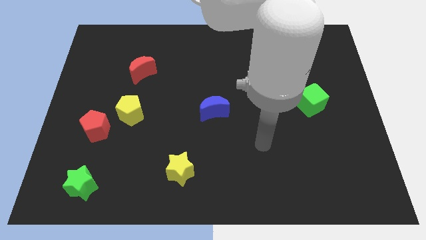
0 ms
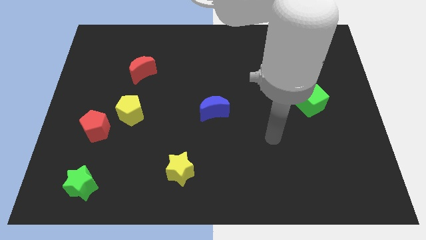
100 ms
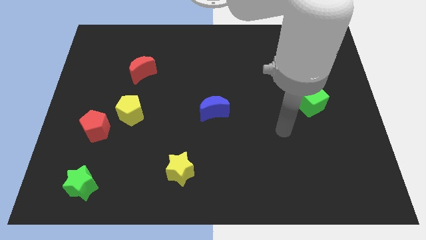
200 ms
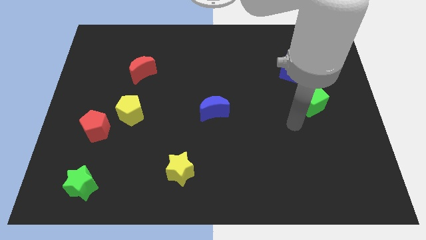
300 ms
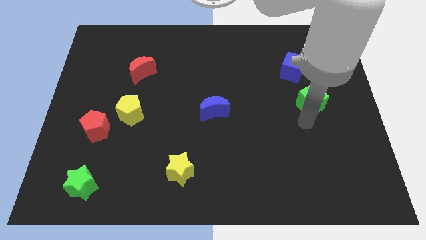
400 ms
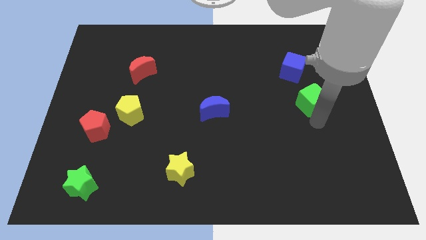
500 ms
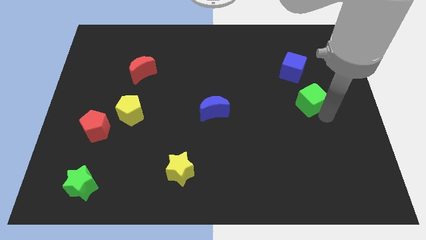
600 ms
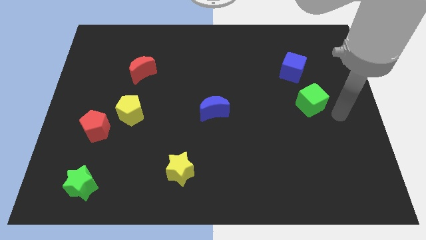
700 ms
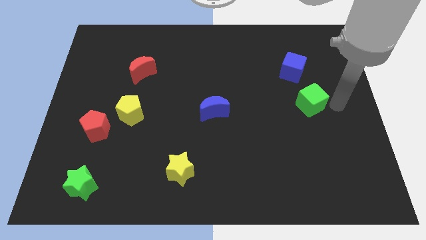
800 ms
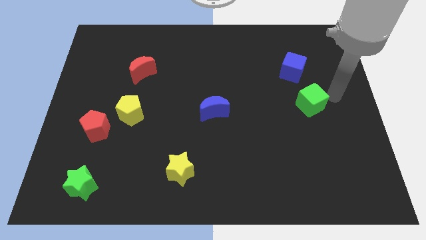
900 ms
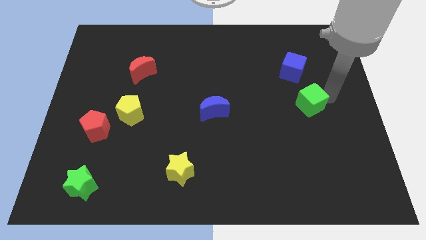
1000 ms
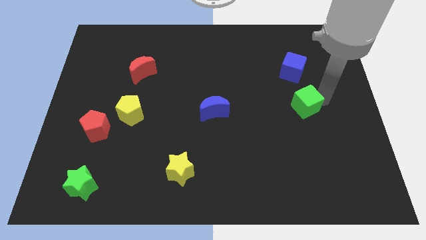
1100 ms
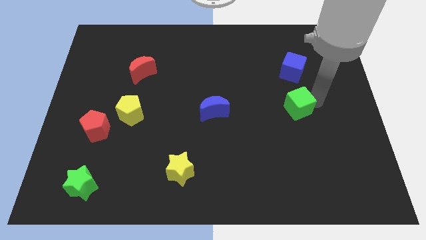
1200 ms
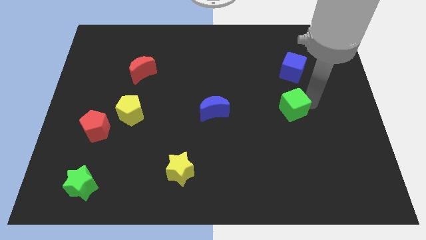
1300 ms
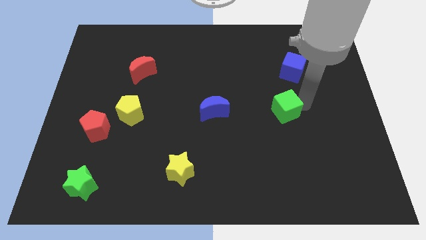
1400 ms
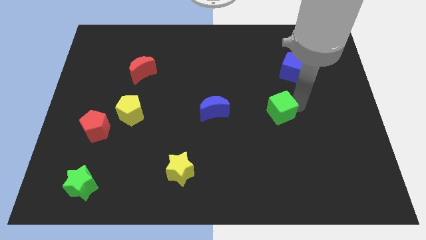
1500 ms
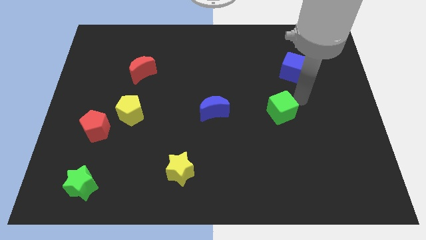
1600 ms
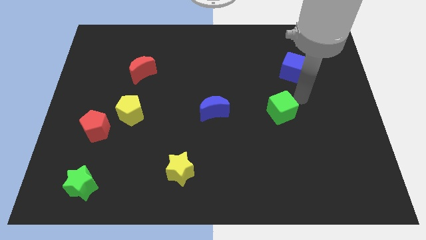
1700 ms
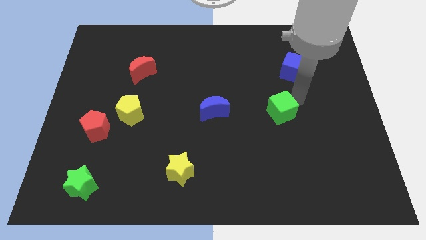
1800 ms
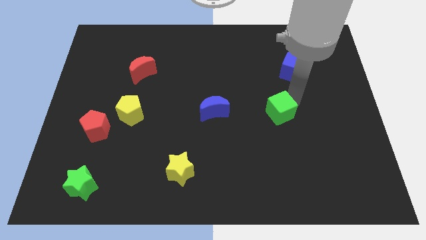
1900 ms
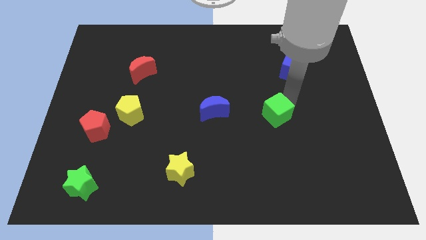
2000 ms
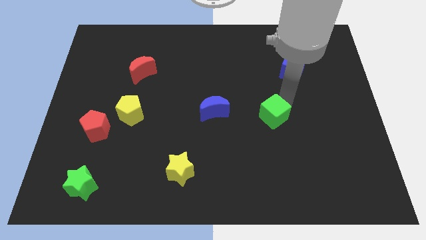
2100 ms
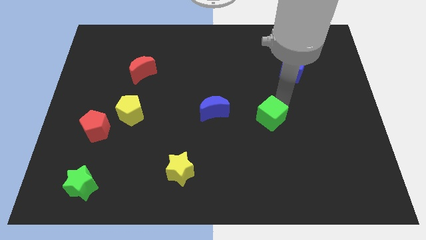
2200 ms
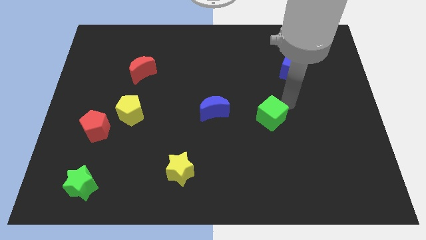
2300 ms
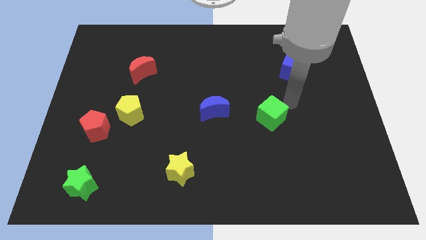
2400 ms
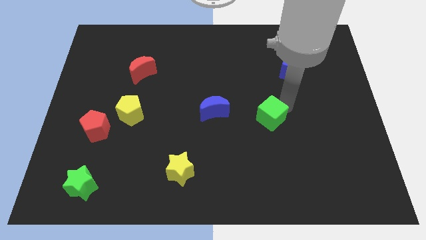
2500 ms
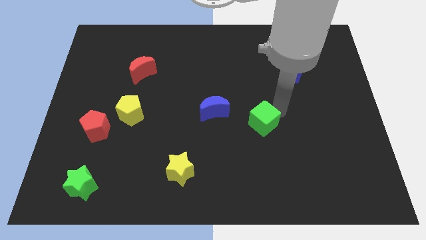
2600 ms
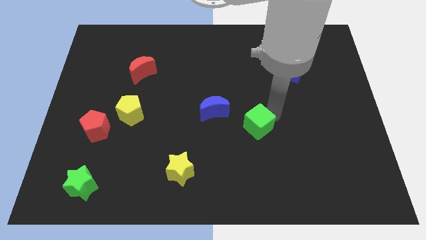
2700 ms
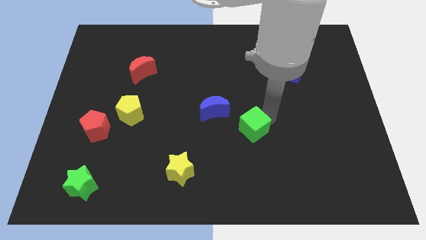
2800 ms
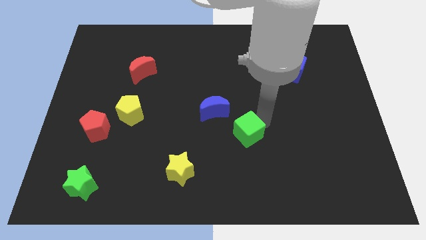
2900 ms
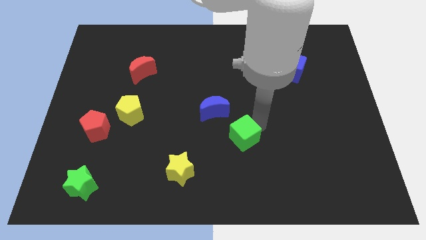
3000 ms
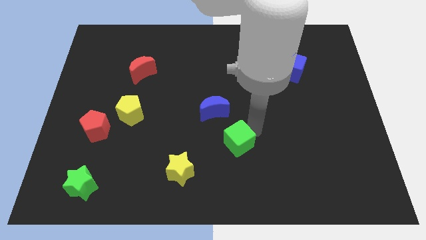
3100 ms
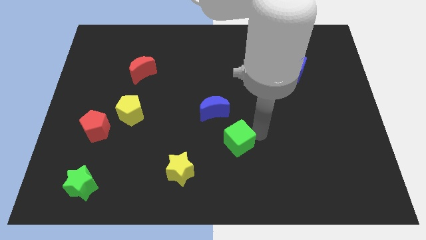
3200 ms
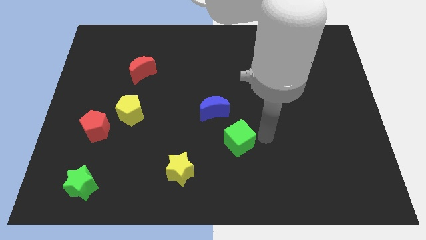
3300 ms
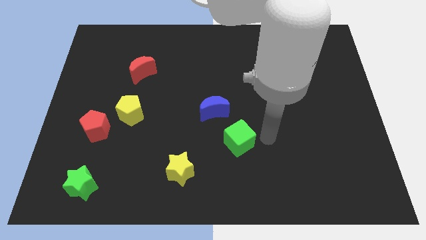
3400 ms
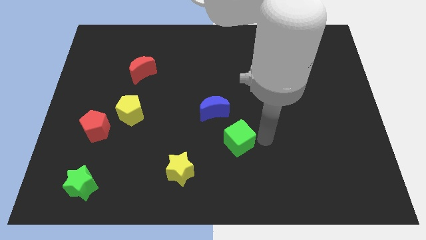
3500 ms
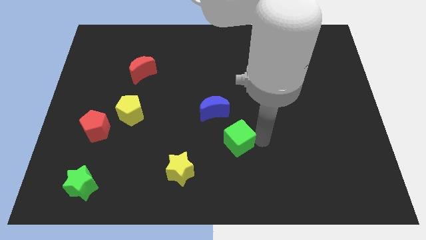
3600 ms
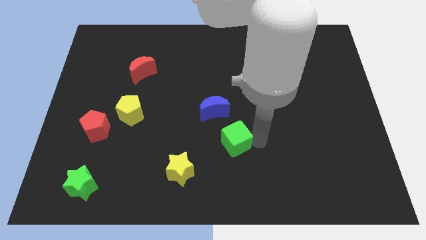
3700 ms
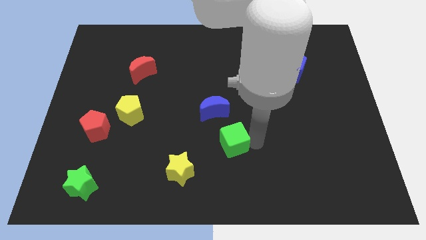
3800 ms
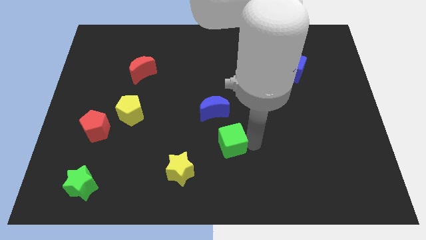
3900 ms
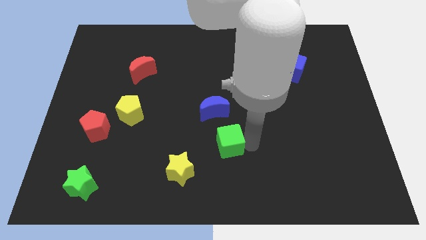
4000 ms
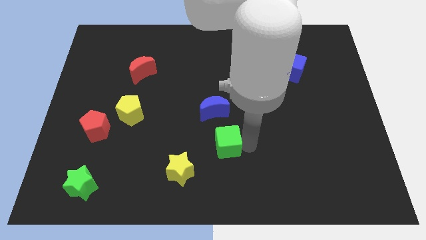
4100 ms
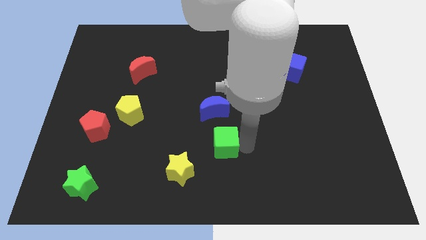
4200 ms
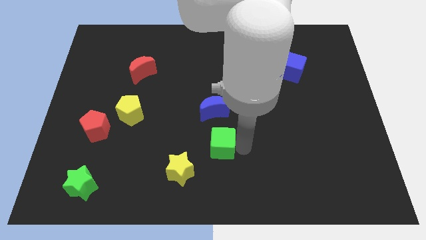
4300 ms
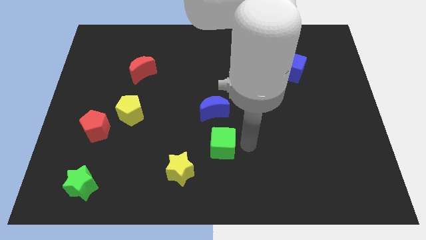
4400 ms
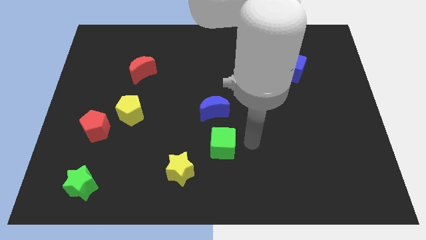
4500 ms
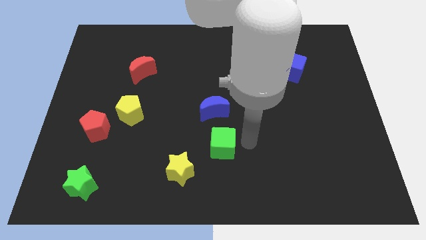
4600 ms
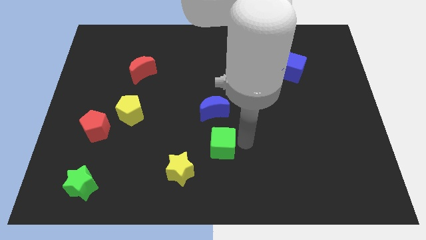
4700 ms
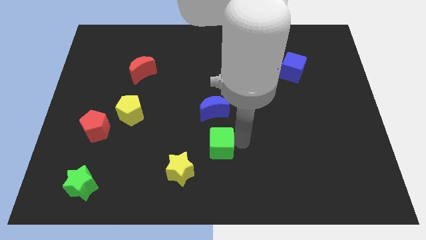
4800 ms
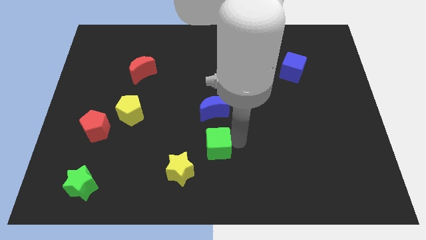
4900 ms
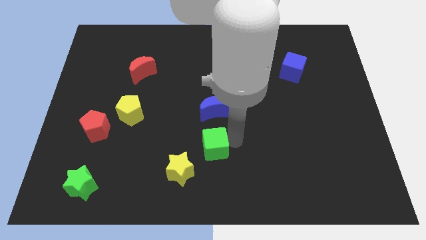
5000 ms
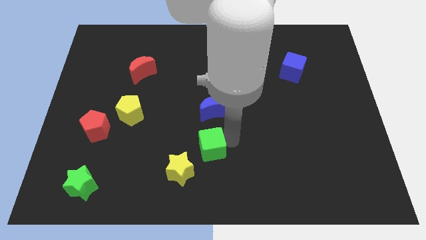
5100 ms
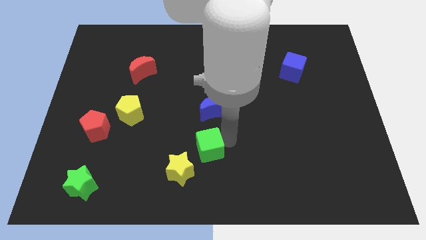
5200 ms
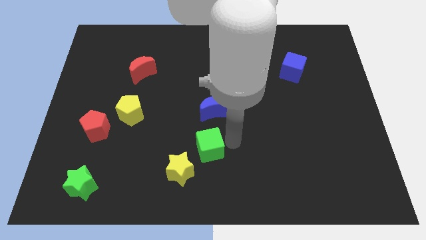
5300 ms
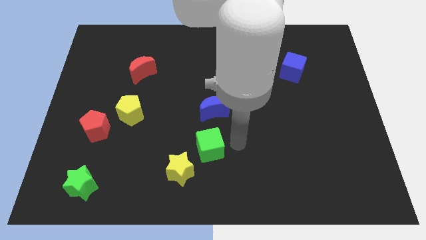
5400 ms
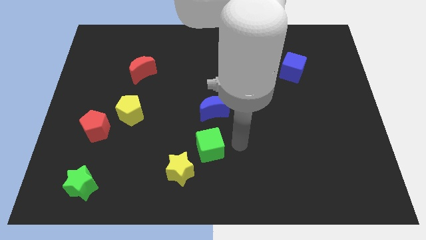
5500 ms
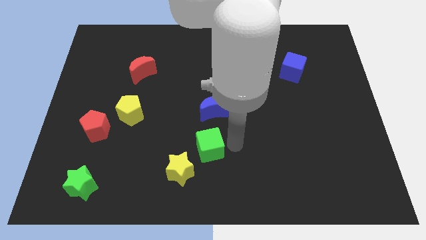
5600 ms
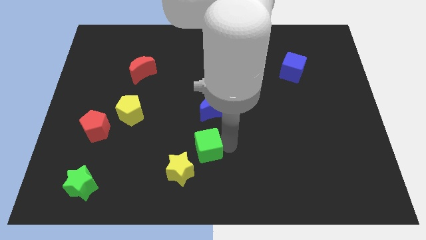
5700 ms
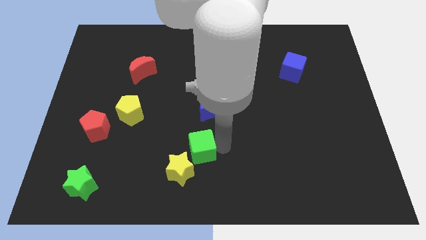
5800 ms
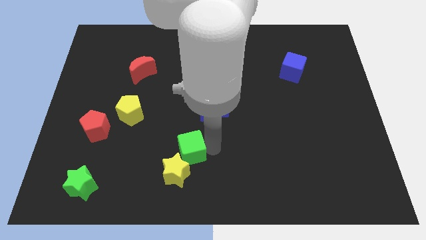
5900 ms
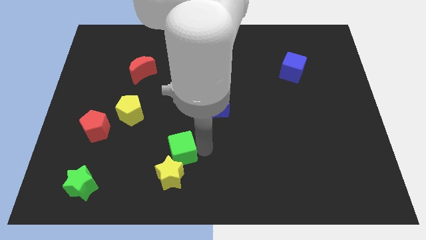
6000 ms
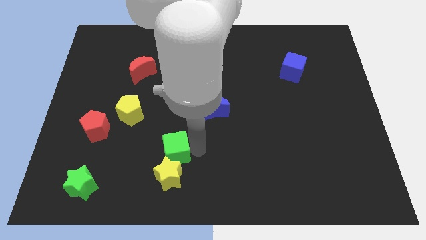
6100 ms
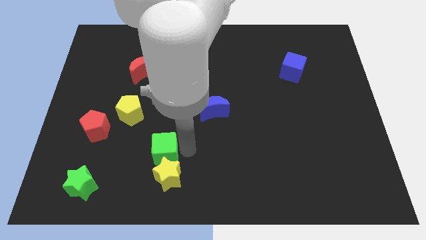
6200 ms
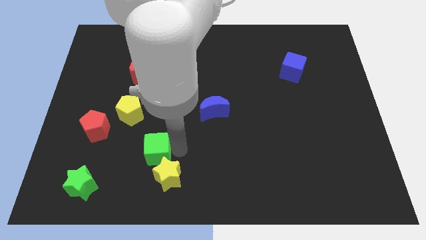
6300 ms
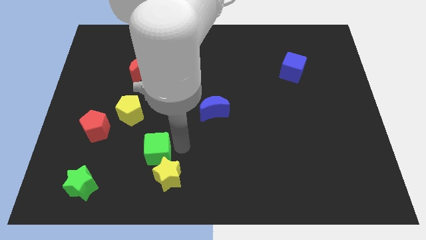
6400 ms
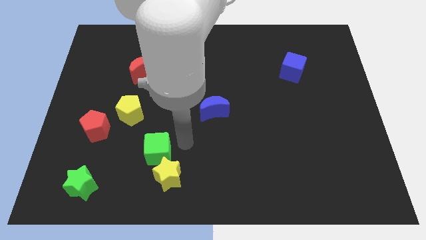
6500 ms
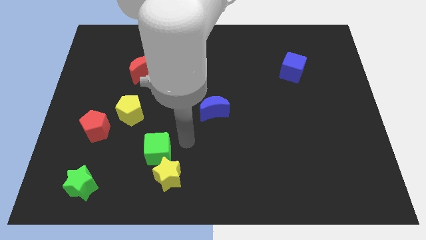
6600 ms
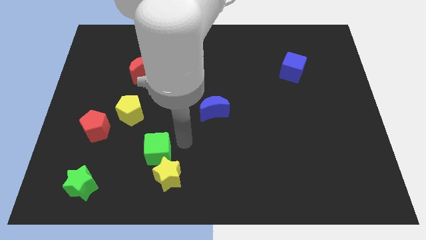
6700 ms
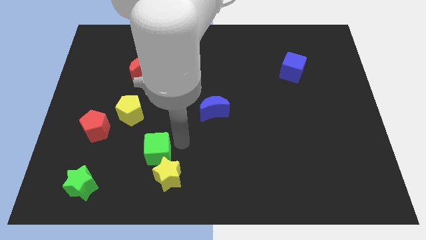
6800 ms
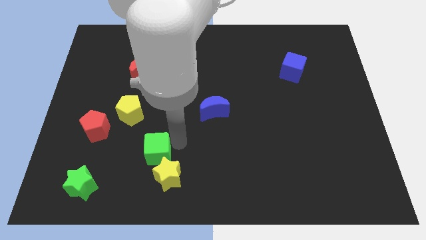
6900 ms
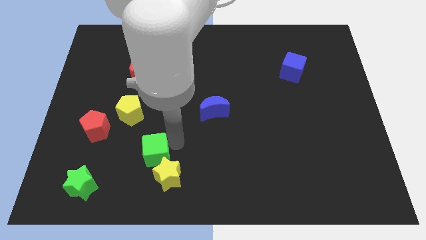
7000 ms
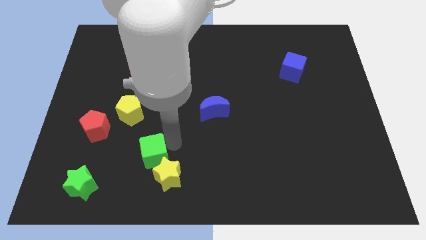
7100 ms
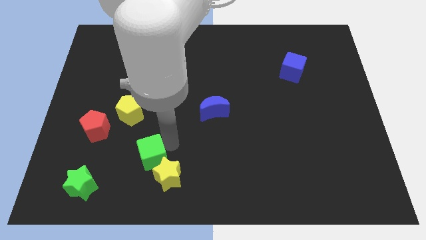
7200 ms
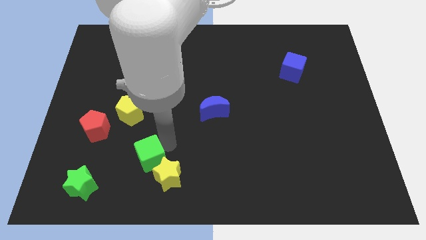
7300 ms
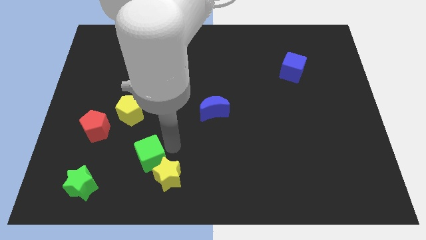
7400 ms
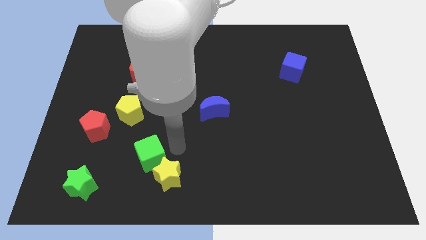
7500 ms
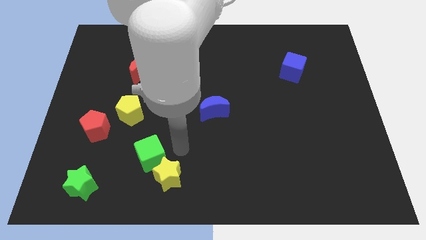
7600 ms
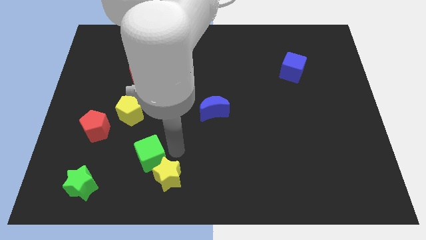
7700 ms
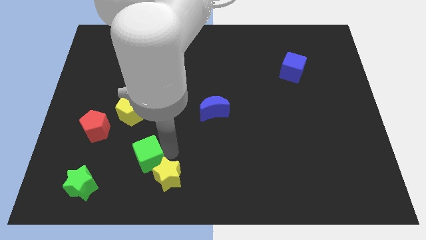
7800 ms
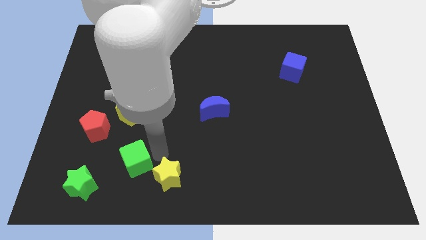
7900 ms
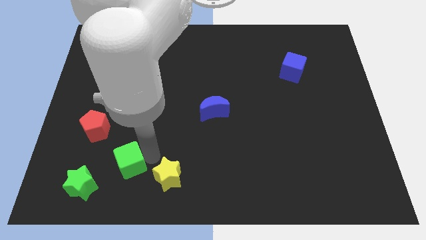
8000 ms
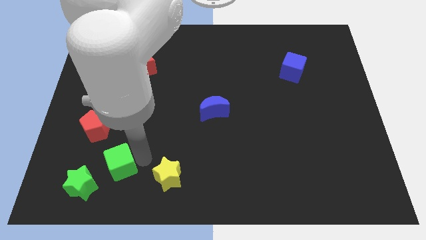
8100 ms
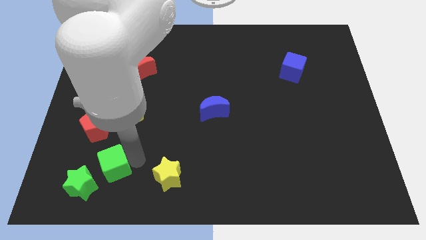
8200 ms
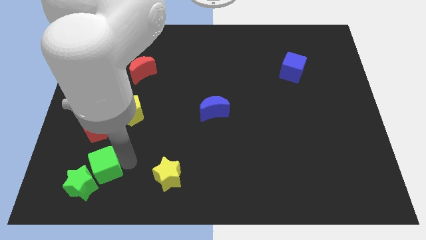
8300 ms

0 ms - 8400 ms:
slide the green cube close to the green star
